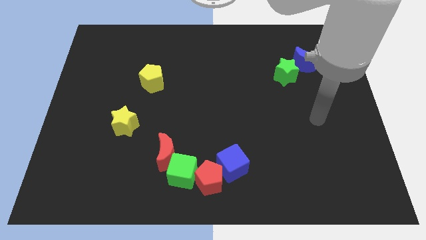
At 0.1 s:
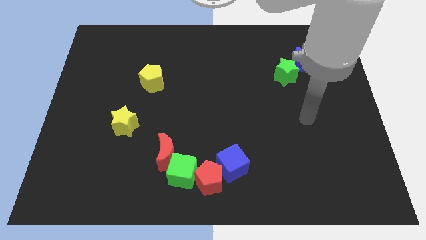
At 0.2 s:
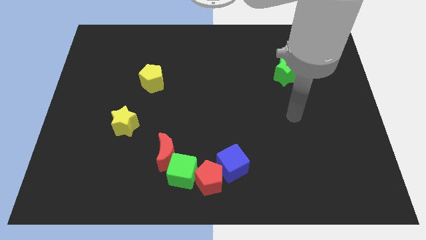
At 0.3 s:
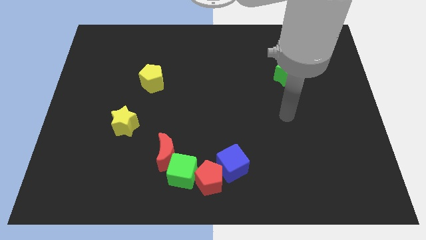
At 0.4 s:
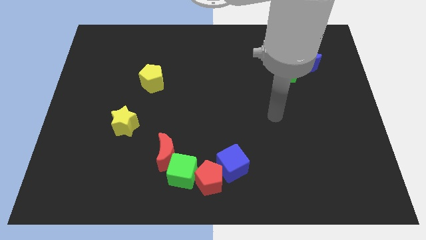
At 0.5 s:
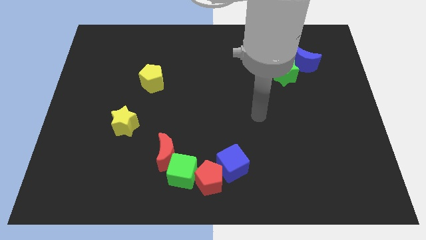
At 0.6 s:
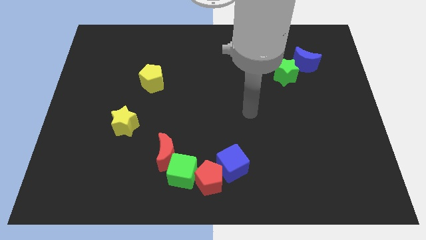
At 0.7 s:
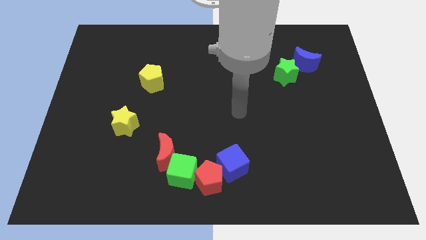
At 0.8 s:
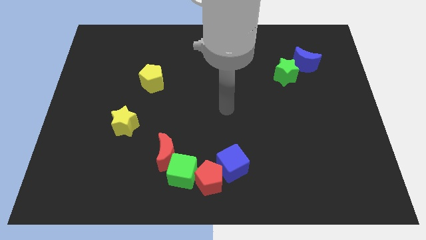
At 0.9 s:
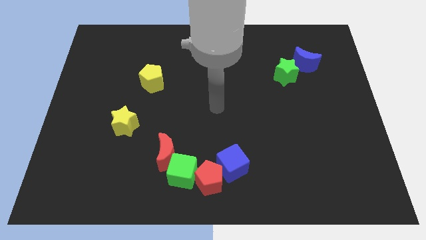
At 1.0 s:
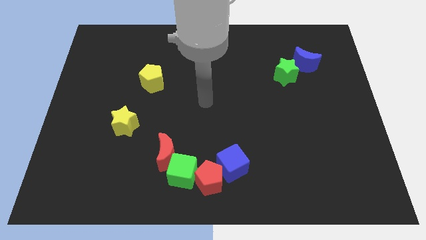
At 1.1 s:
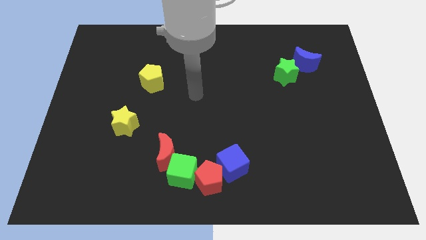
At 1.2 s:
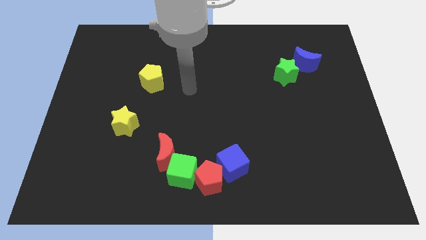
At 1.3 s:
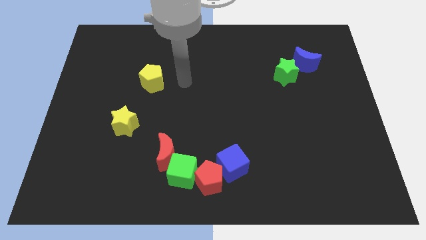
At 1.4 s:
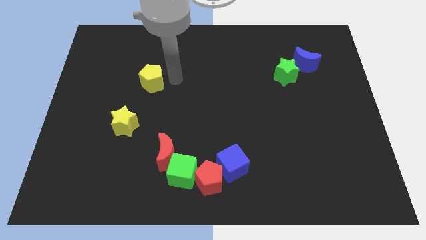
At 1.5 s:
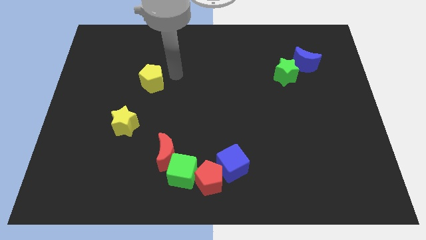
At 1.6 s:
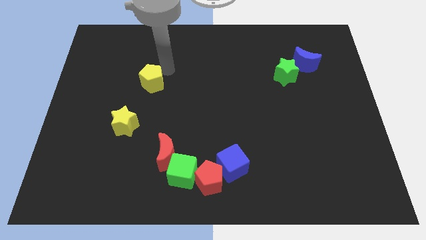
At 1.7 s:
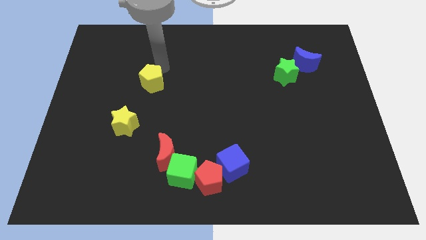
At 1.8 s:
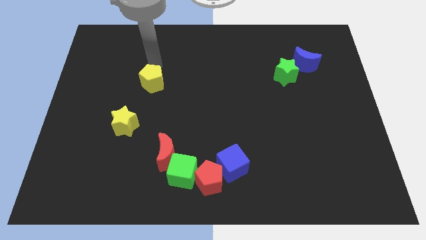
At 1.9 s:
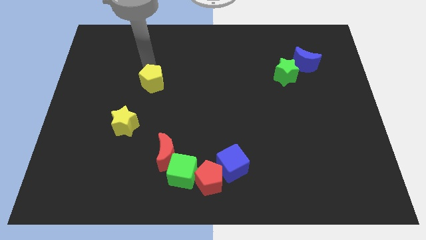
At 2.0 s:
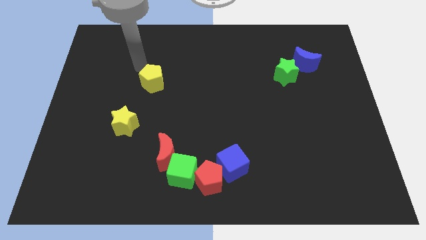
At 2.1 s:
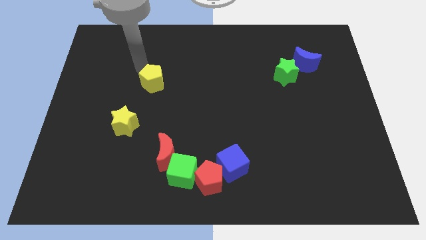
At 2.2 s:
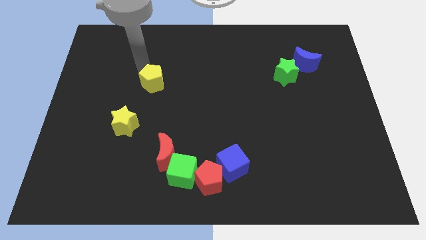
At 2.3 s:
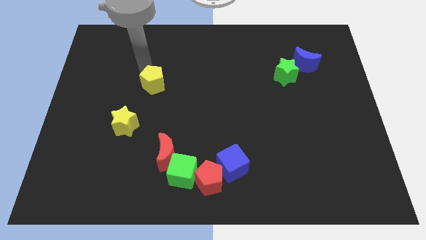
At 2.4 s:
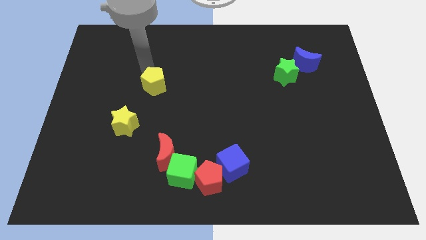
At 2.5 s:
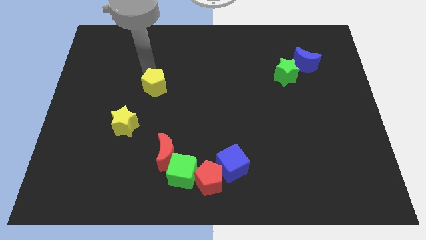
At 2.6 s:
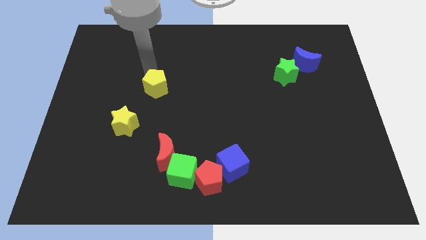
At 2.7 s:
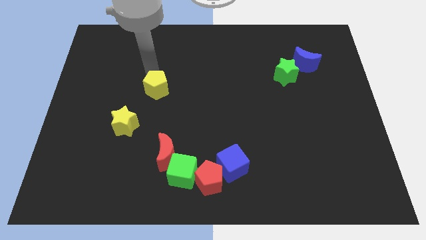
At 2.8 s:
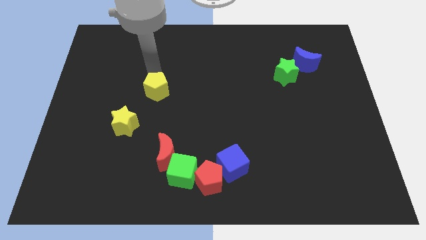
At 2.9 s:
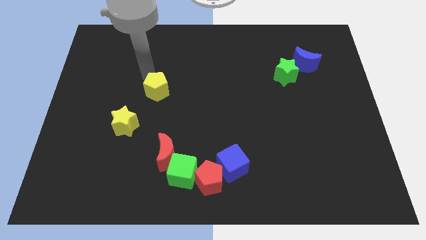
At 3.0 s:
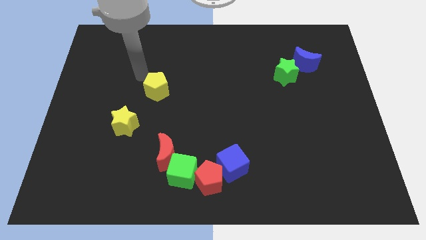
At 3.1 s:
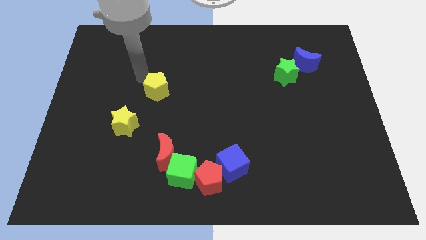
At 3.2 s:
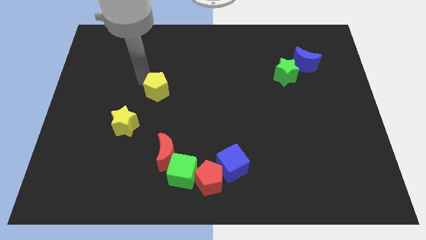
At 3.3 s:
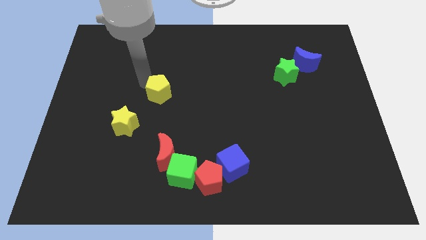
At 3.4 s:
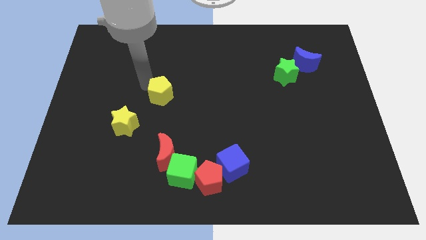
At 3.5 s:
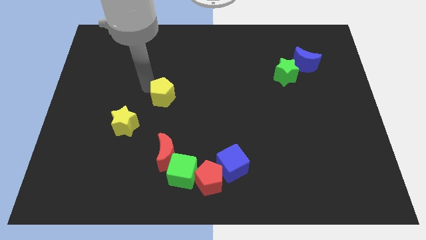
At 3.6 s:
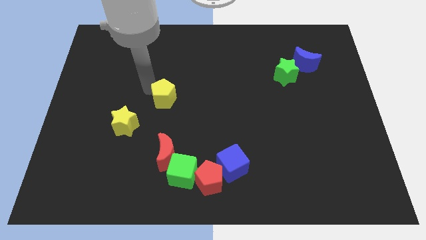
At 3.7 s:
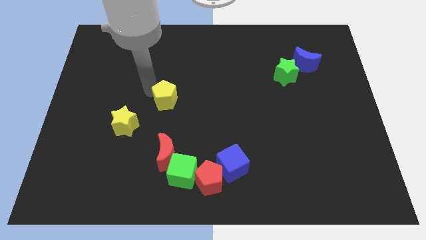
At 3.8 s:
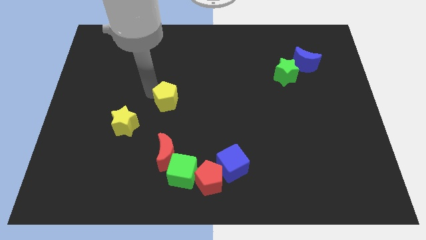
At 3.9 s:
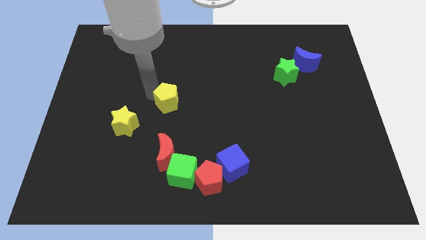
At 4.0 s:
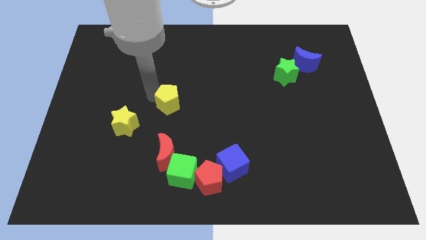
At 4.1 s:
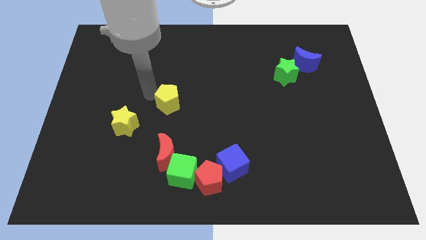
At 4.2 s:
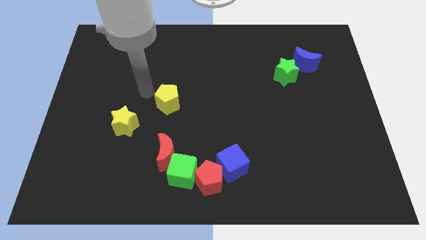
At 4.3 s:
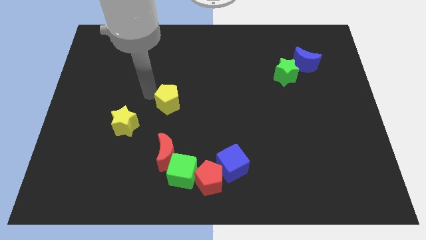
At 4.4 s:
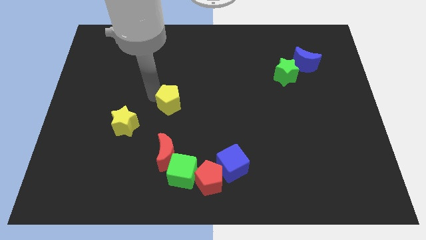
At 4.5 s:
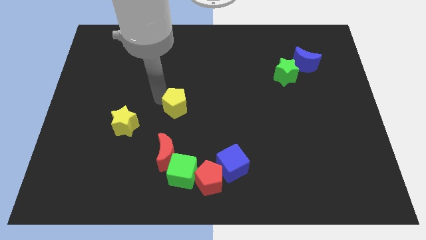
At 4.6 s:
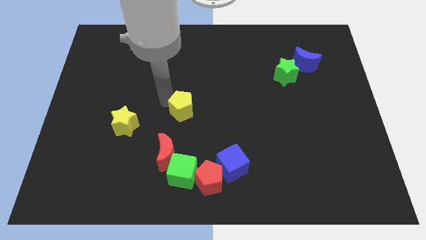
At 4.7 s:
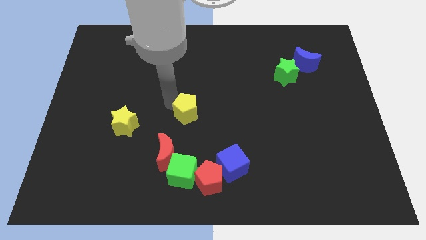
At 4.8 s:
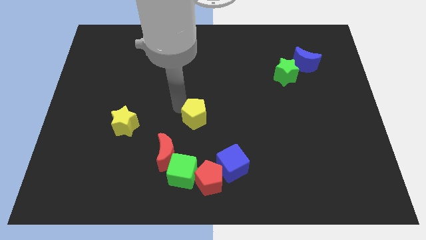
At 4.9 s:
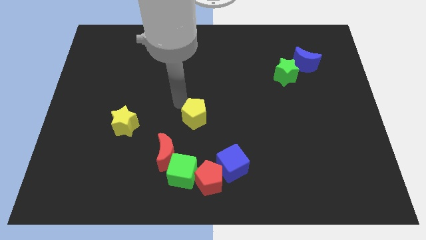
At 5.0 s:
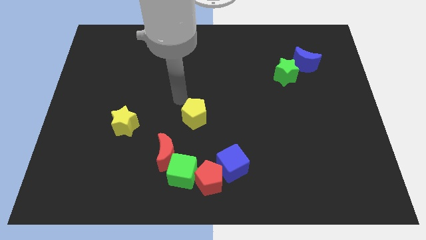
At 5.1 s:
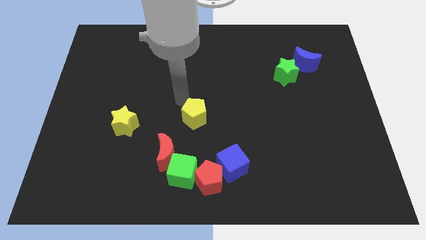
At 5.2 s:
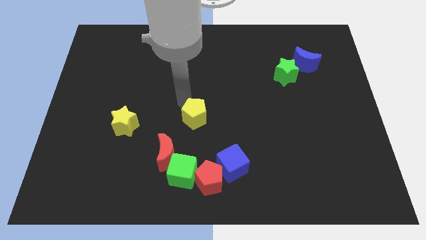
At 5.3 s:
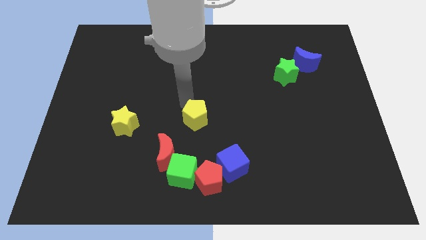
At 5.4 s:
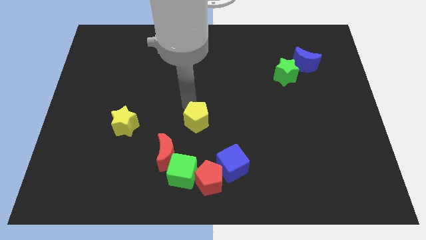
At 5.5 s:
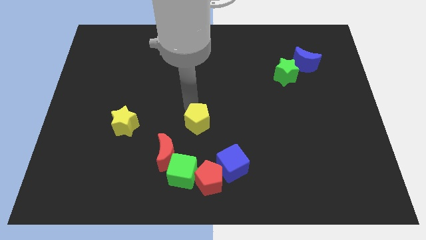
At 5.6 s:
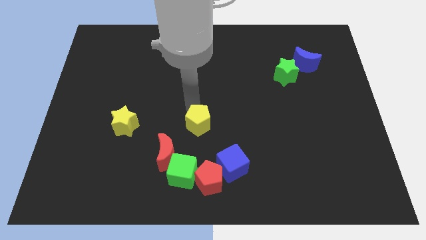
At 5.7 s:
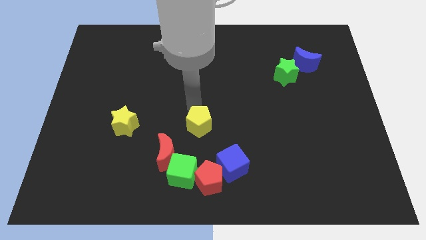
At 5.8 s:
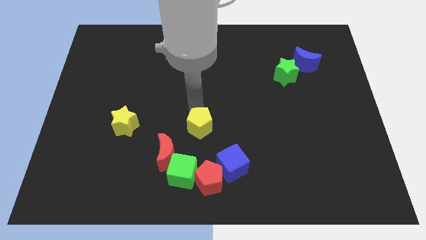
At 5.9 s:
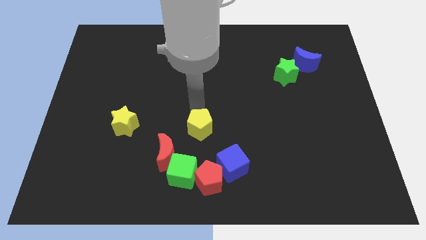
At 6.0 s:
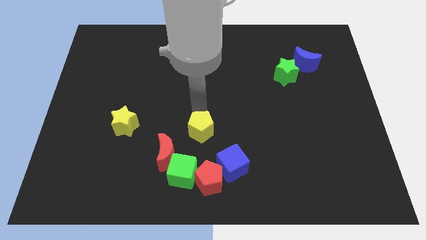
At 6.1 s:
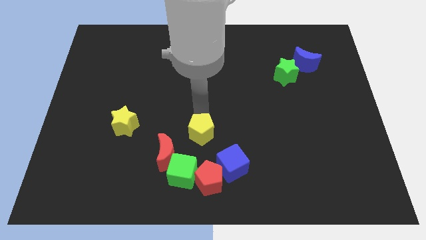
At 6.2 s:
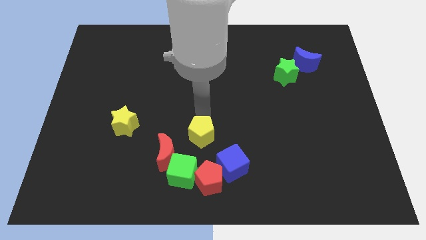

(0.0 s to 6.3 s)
move the yellow pentagon down and to the right diagonally

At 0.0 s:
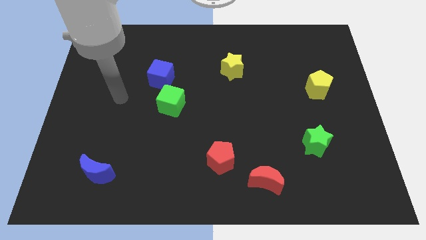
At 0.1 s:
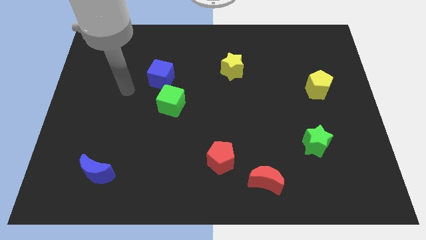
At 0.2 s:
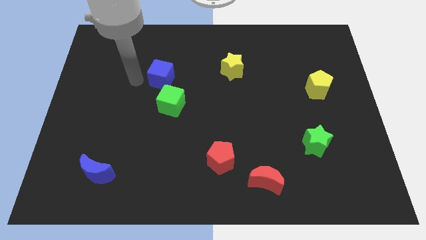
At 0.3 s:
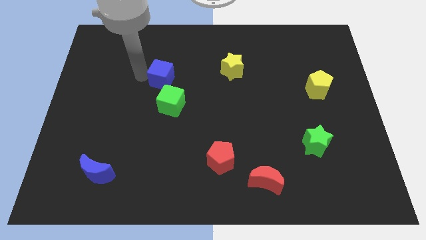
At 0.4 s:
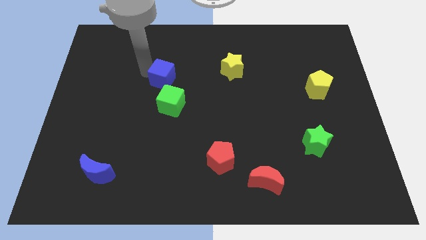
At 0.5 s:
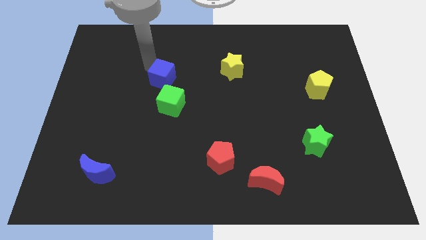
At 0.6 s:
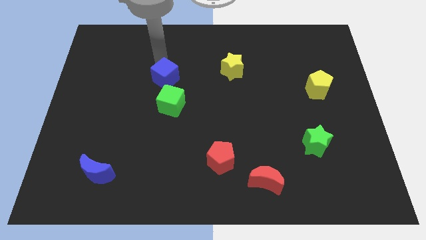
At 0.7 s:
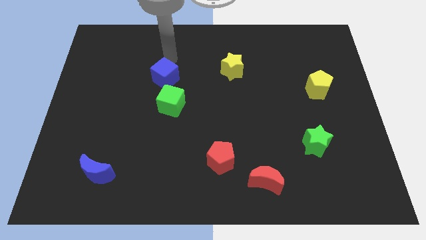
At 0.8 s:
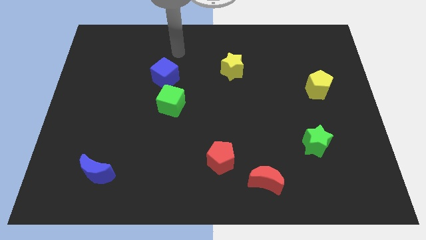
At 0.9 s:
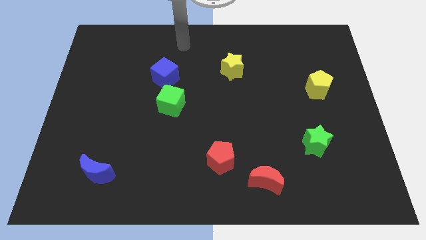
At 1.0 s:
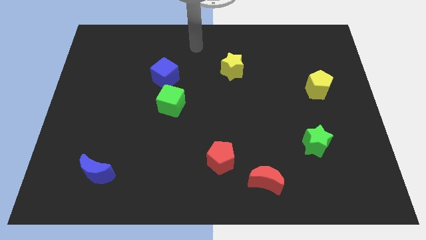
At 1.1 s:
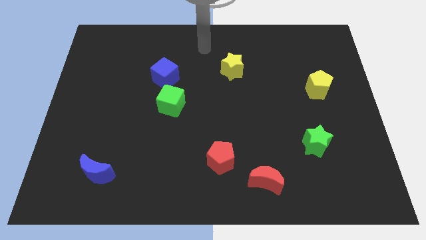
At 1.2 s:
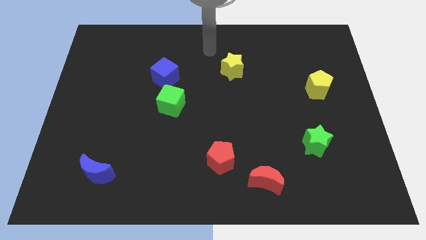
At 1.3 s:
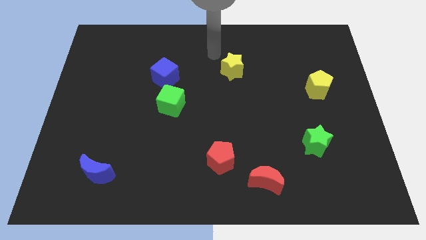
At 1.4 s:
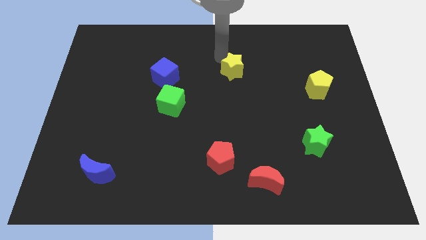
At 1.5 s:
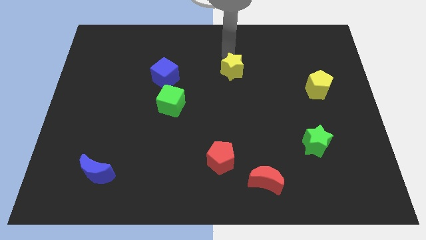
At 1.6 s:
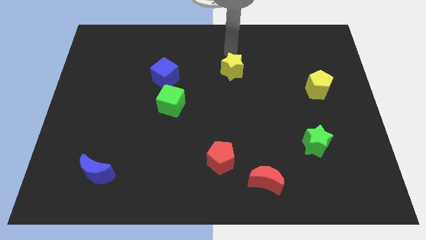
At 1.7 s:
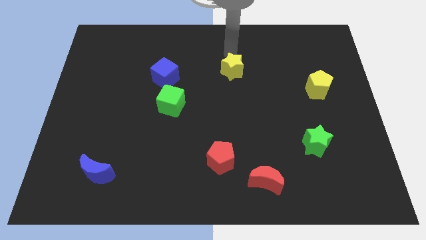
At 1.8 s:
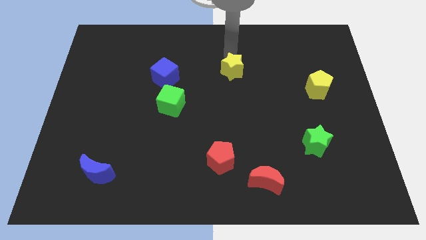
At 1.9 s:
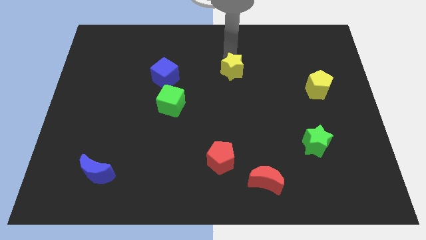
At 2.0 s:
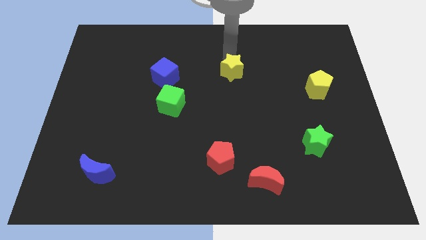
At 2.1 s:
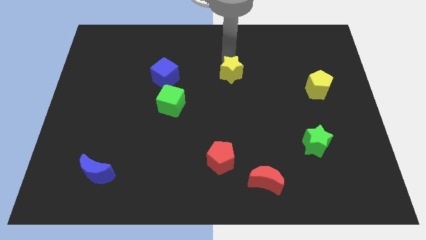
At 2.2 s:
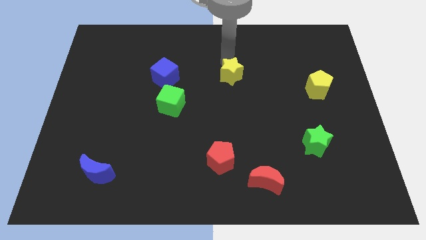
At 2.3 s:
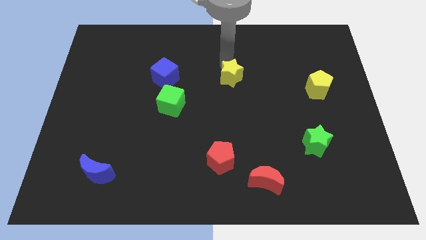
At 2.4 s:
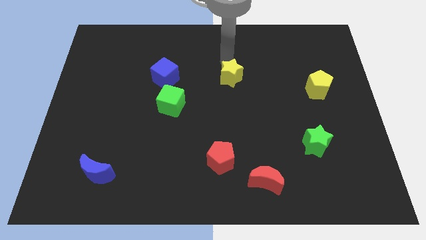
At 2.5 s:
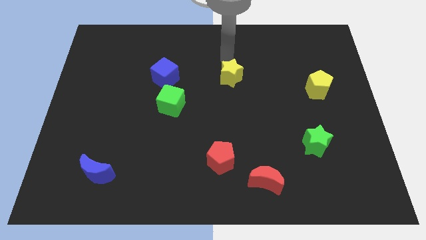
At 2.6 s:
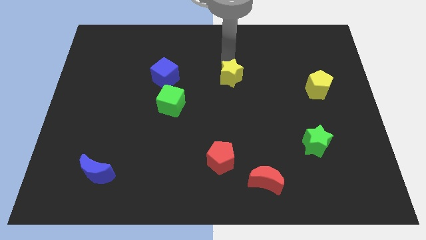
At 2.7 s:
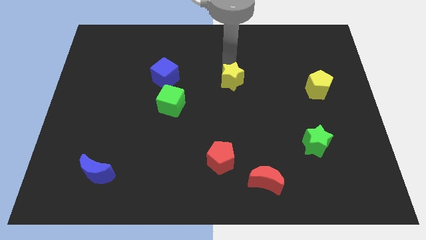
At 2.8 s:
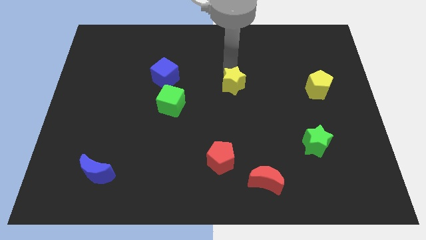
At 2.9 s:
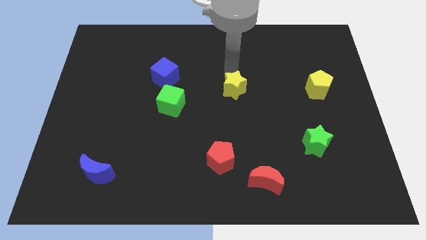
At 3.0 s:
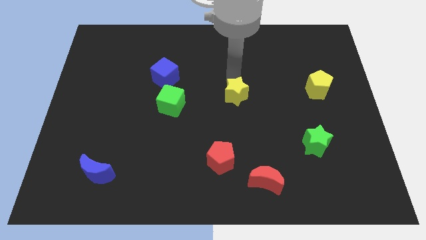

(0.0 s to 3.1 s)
push the yellow star slightly downwards
